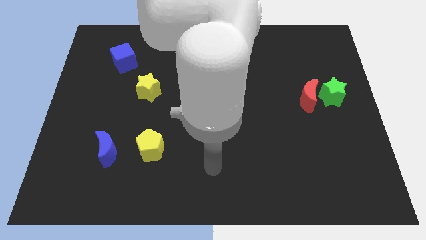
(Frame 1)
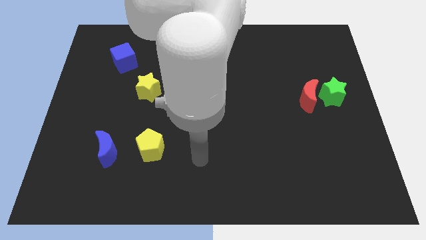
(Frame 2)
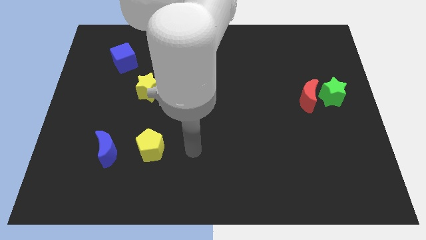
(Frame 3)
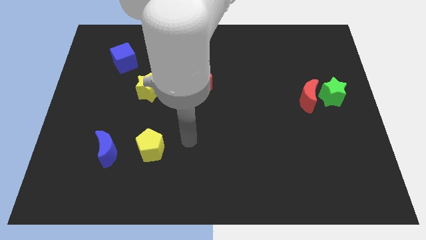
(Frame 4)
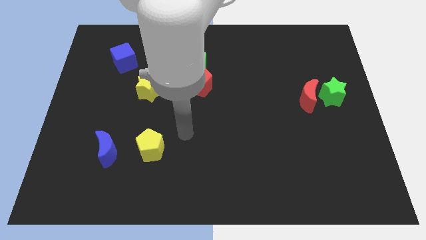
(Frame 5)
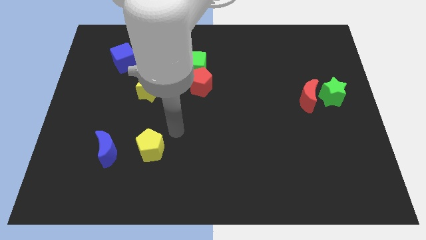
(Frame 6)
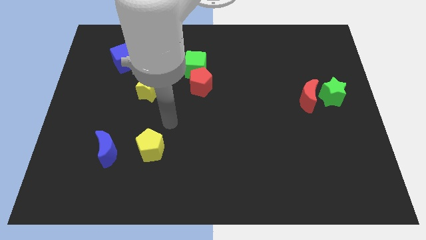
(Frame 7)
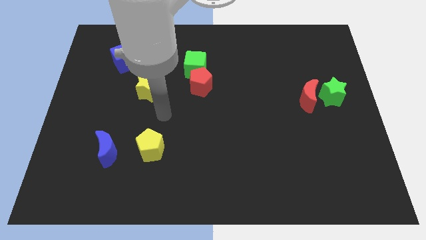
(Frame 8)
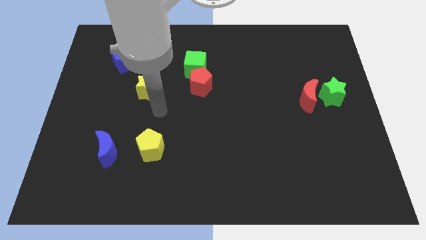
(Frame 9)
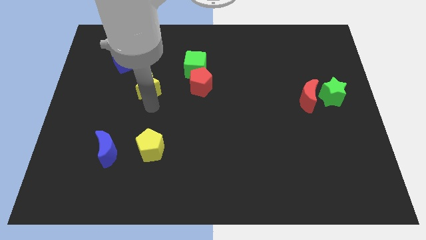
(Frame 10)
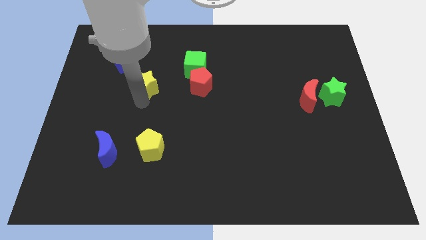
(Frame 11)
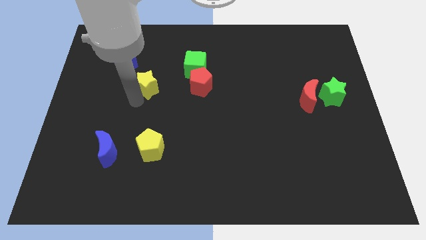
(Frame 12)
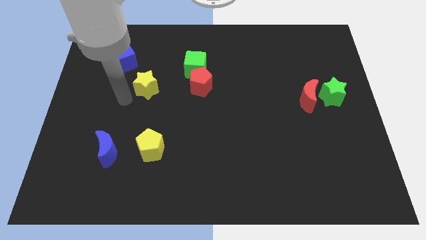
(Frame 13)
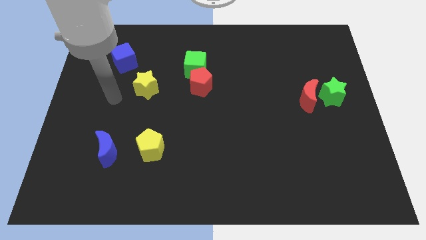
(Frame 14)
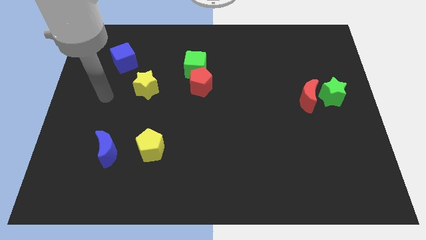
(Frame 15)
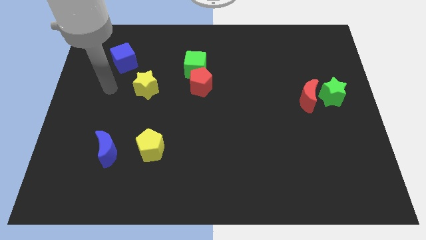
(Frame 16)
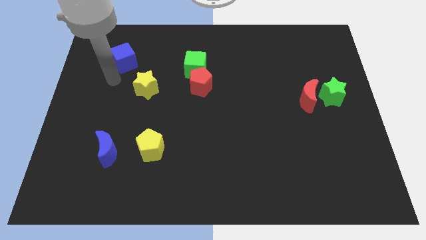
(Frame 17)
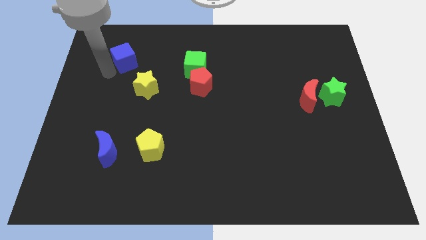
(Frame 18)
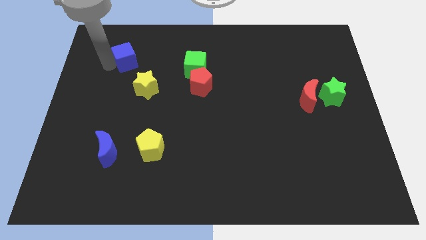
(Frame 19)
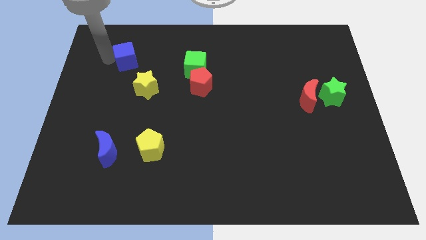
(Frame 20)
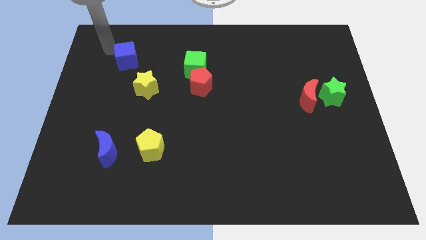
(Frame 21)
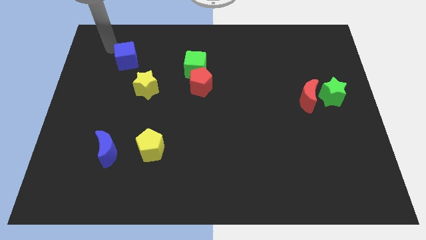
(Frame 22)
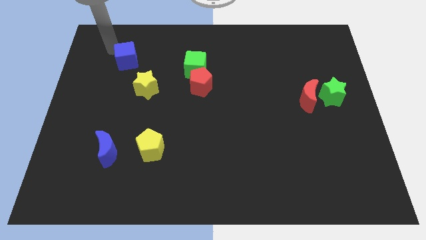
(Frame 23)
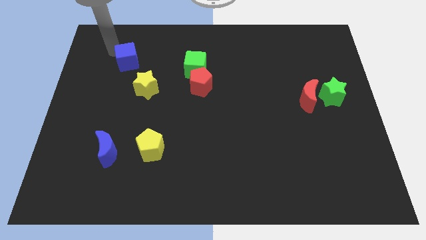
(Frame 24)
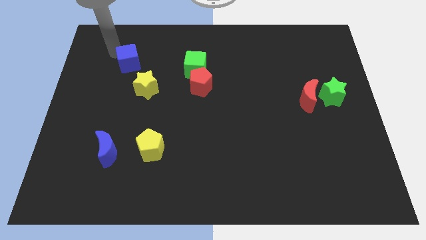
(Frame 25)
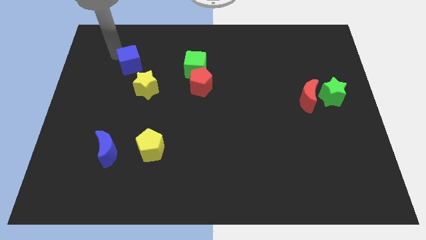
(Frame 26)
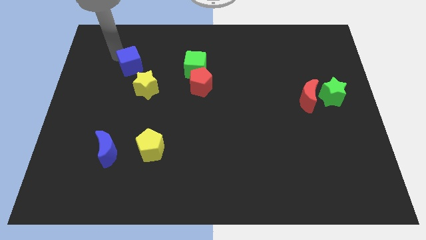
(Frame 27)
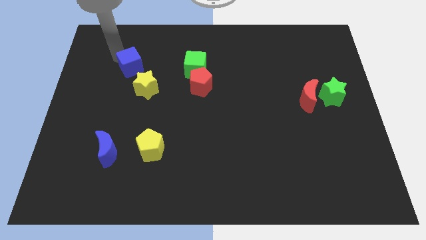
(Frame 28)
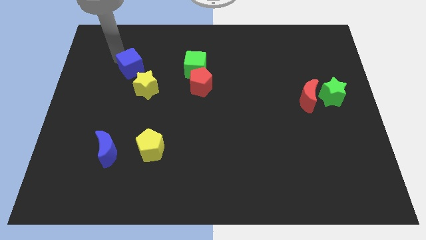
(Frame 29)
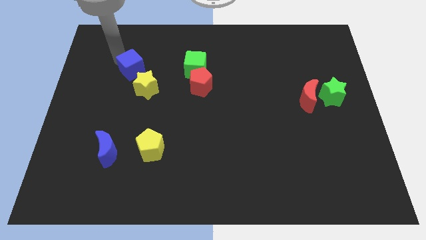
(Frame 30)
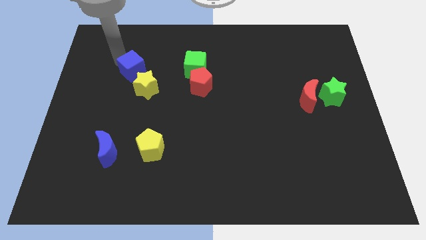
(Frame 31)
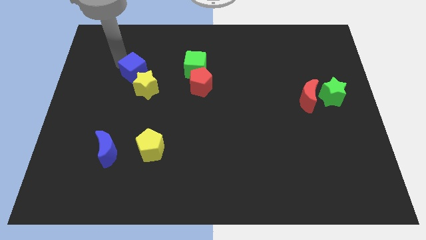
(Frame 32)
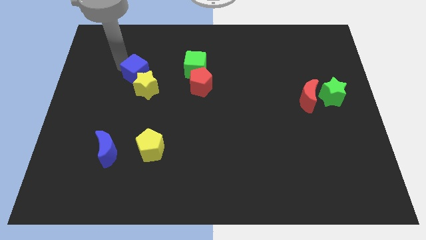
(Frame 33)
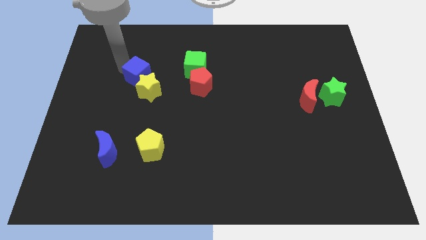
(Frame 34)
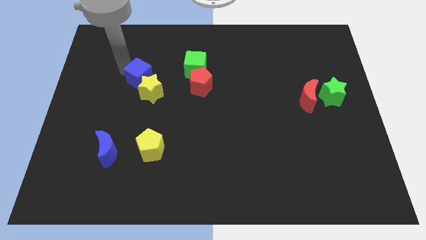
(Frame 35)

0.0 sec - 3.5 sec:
move the blue cube a bit diagonally down and right

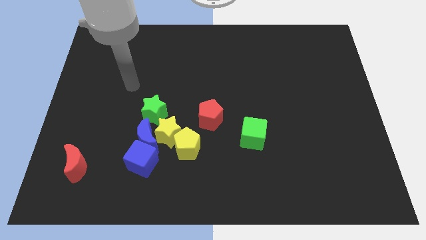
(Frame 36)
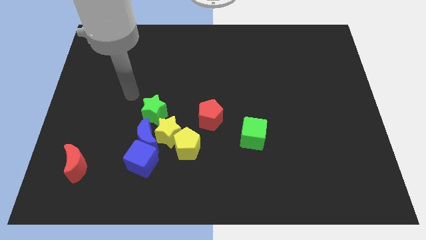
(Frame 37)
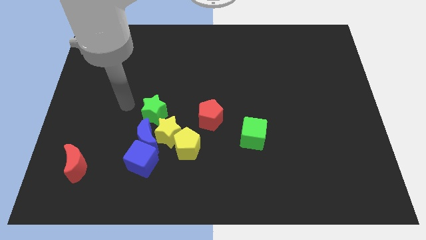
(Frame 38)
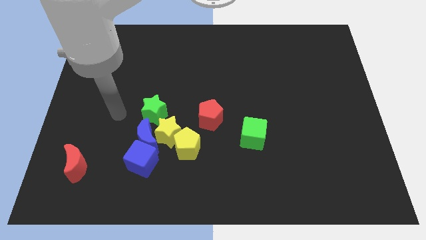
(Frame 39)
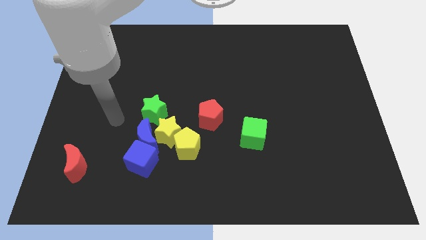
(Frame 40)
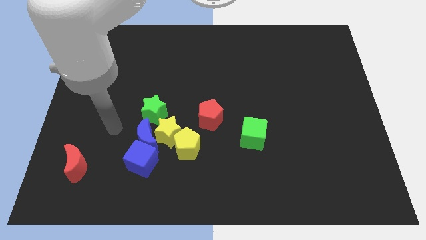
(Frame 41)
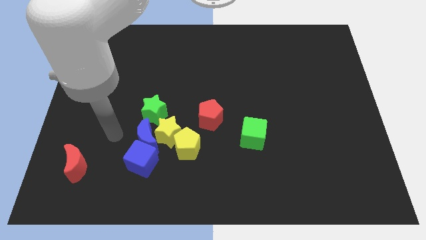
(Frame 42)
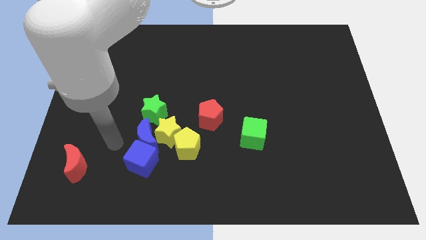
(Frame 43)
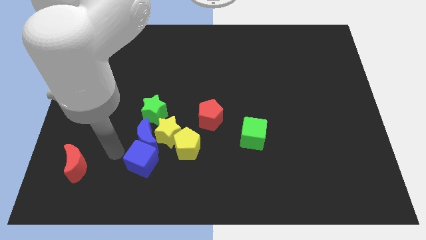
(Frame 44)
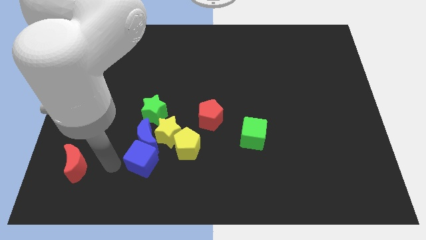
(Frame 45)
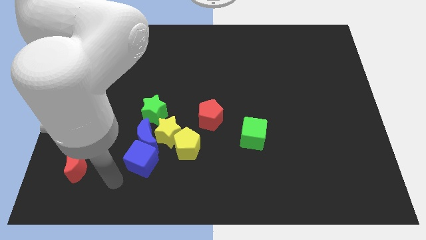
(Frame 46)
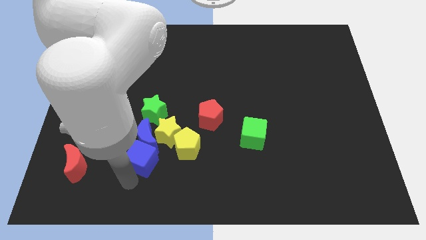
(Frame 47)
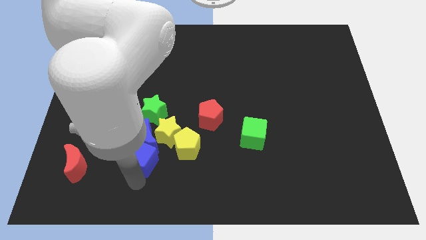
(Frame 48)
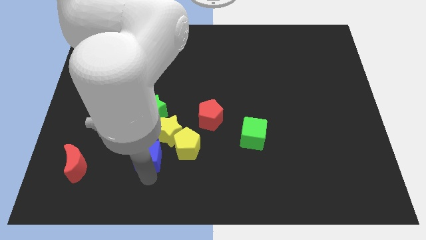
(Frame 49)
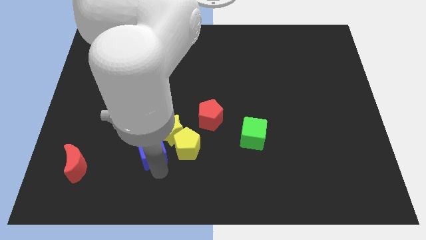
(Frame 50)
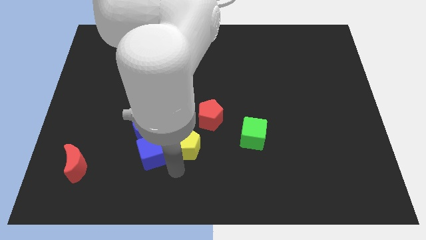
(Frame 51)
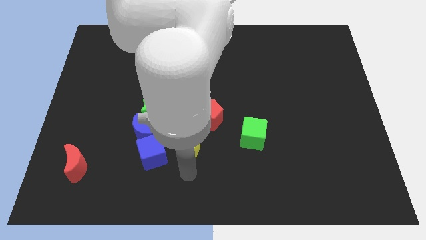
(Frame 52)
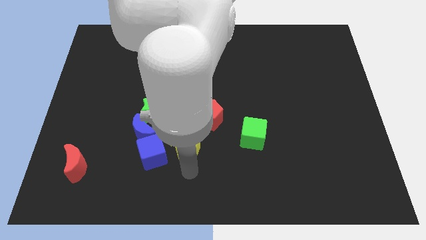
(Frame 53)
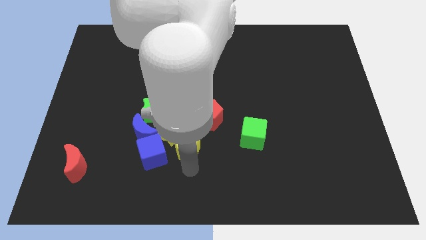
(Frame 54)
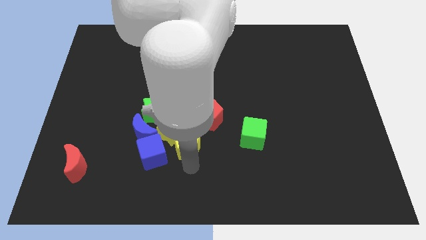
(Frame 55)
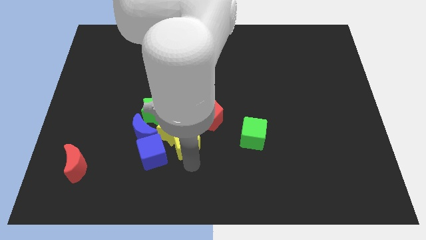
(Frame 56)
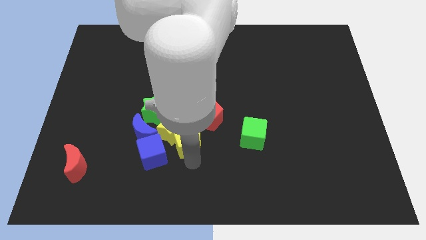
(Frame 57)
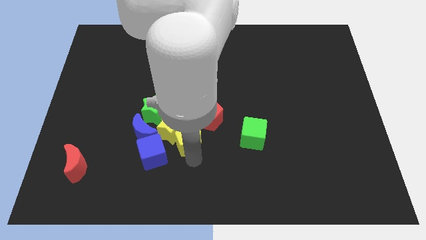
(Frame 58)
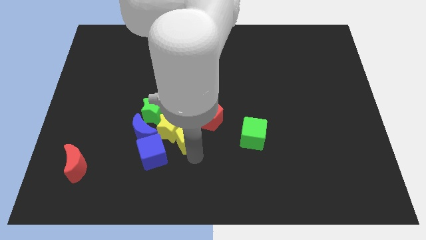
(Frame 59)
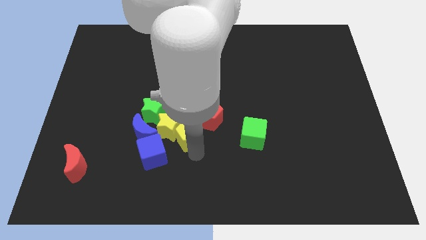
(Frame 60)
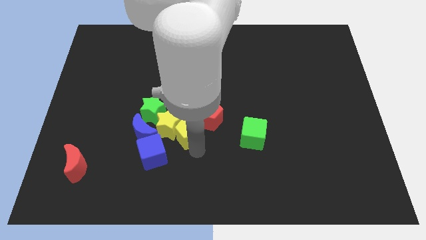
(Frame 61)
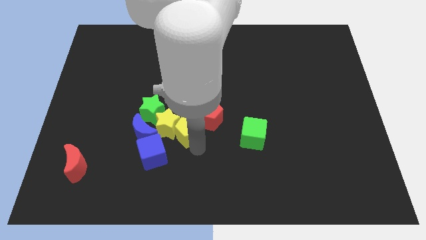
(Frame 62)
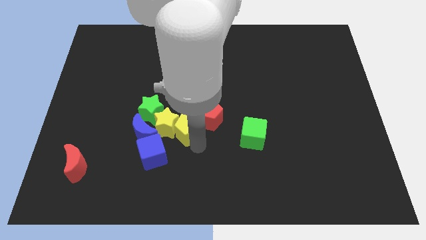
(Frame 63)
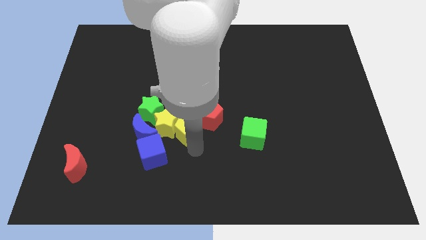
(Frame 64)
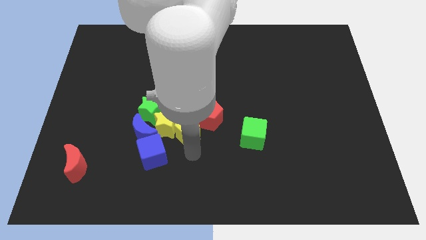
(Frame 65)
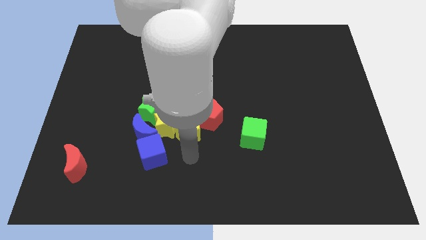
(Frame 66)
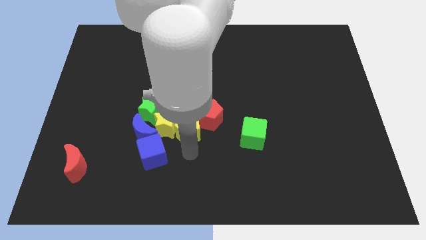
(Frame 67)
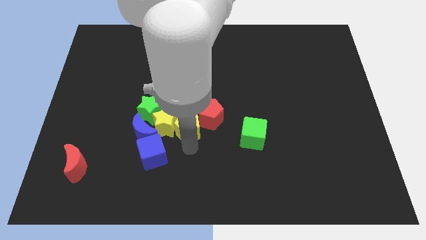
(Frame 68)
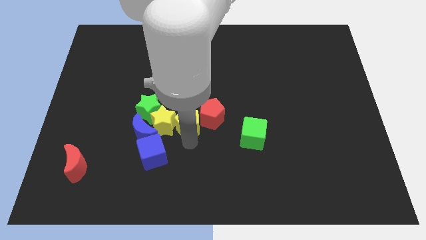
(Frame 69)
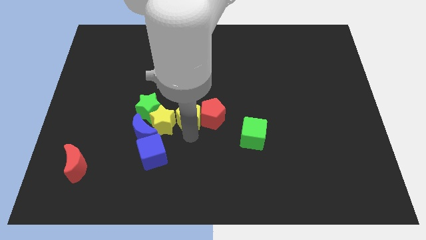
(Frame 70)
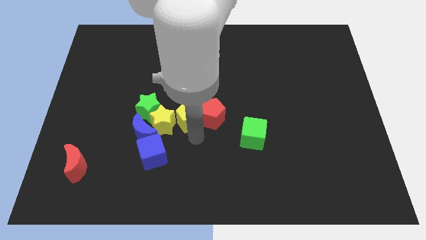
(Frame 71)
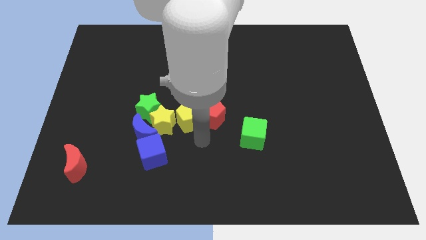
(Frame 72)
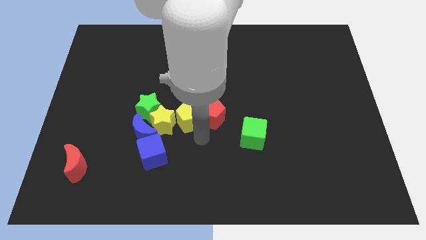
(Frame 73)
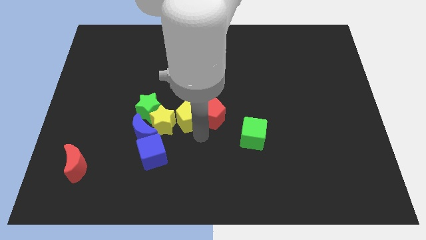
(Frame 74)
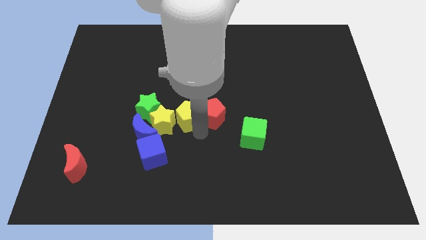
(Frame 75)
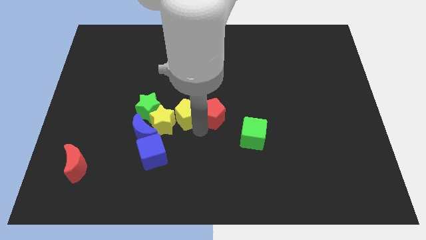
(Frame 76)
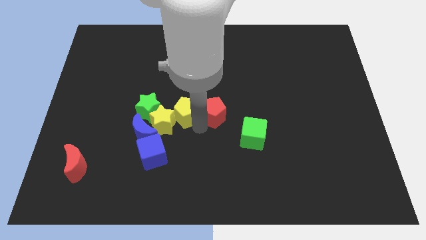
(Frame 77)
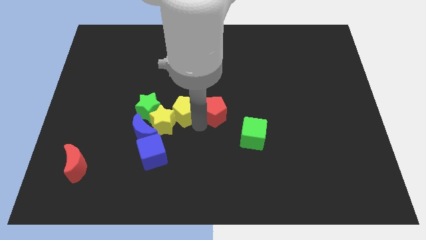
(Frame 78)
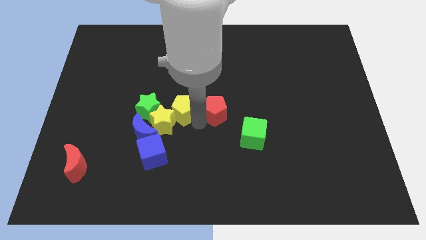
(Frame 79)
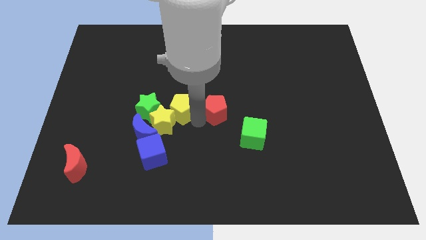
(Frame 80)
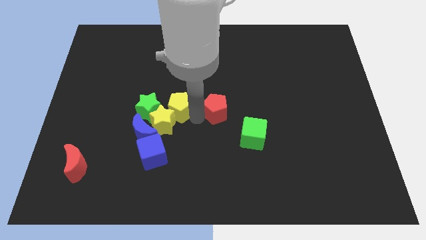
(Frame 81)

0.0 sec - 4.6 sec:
slide the yellow pentagon a bit upwards and left diagonally
